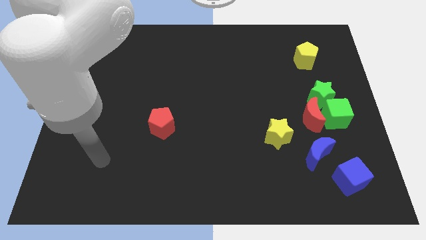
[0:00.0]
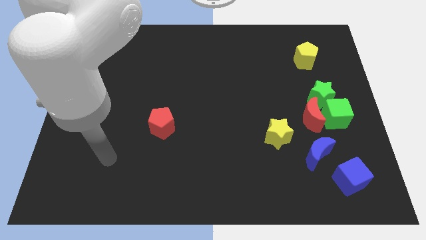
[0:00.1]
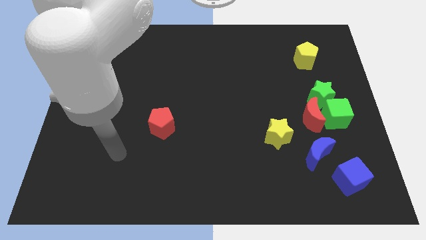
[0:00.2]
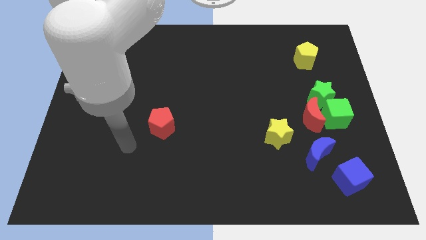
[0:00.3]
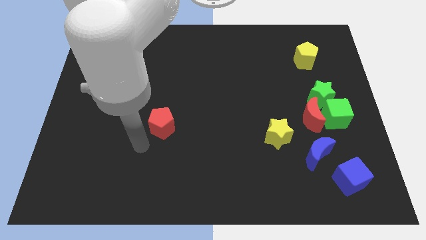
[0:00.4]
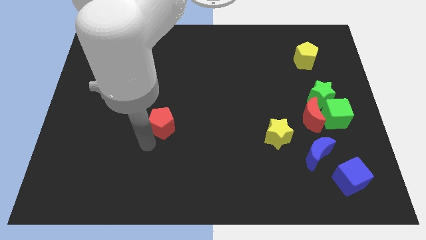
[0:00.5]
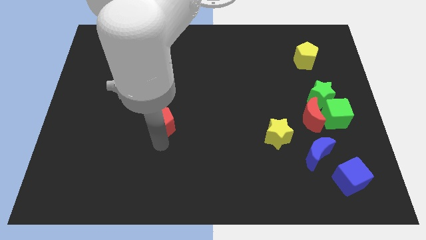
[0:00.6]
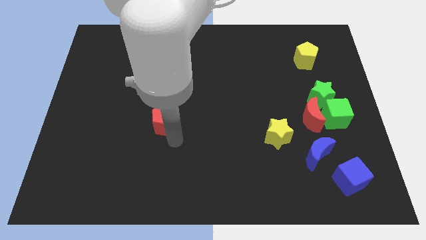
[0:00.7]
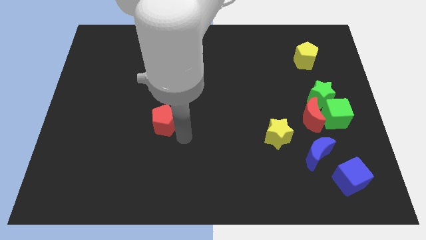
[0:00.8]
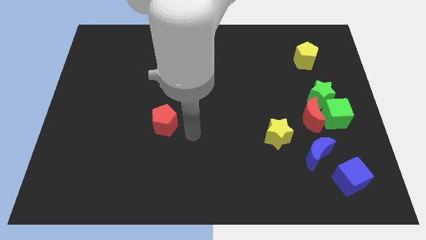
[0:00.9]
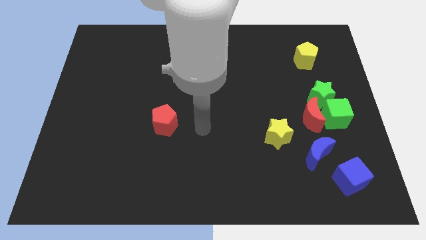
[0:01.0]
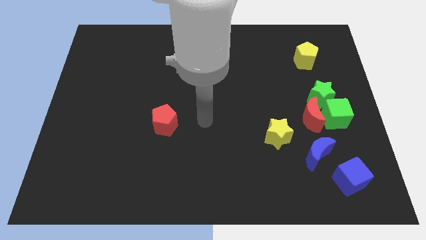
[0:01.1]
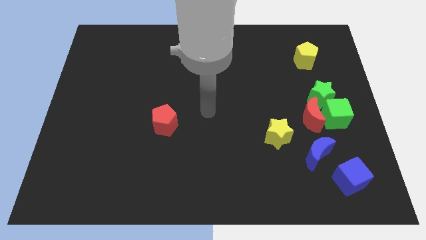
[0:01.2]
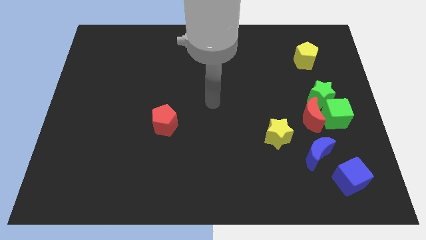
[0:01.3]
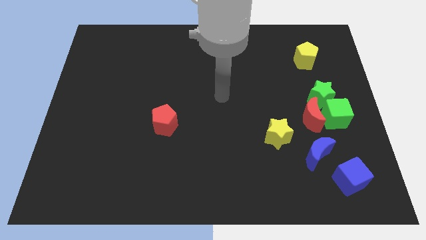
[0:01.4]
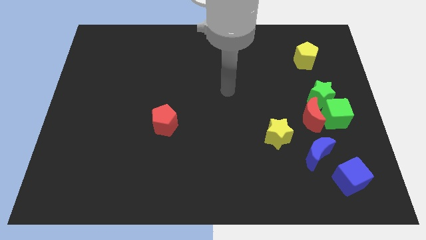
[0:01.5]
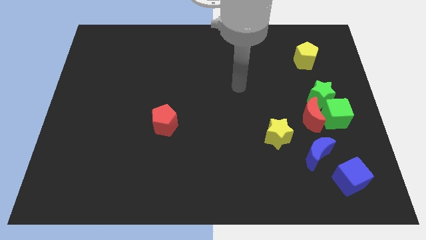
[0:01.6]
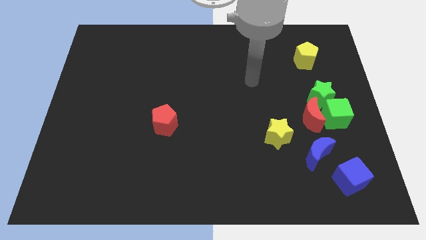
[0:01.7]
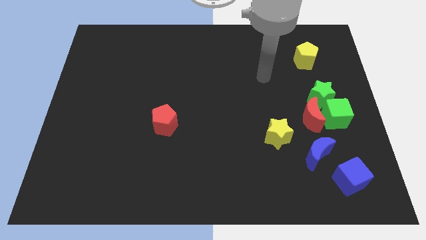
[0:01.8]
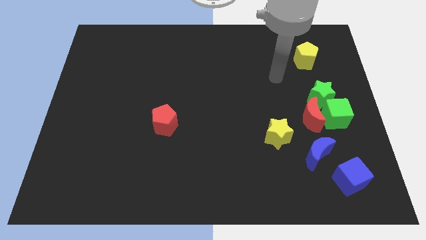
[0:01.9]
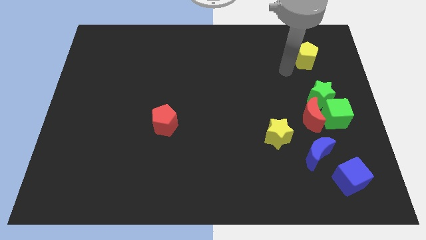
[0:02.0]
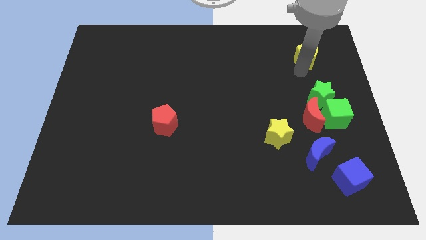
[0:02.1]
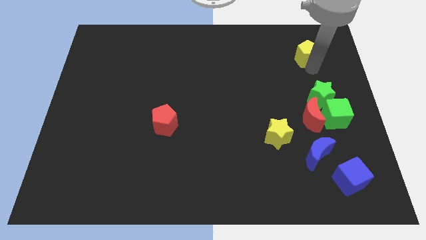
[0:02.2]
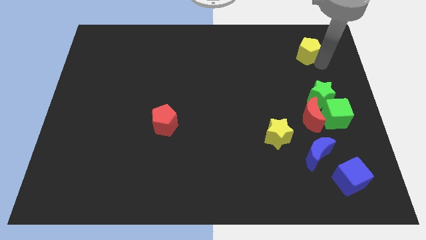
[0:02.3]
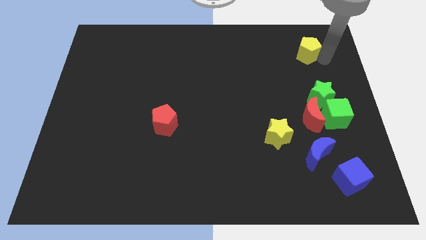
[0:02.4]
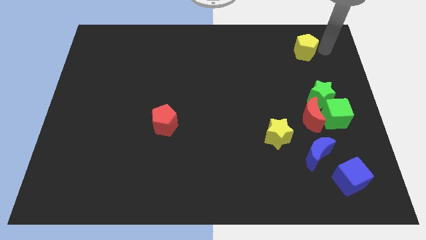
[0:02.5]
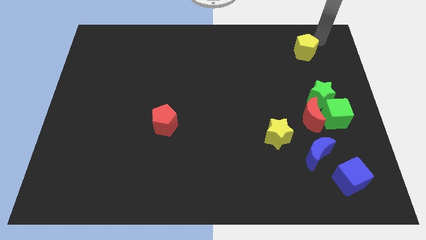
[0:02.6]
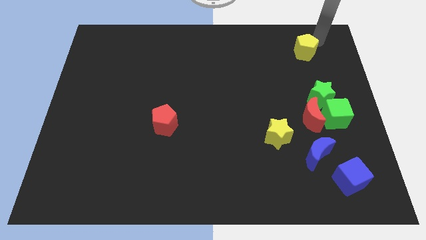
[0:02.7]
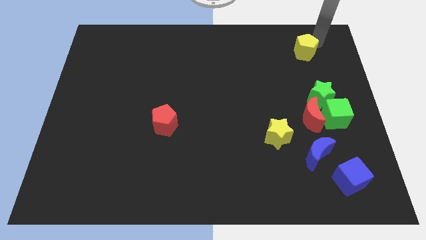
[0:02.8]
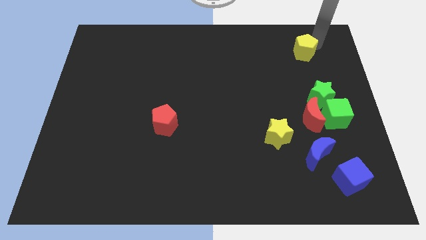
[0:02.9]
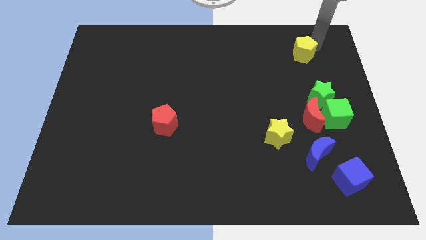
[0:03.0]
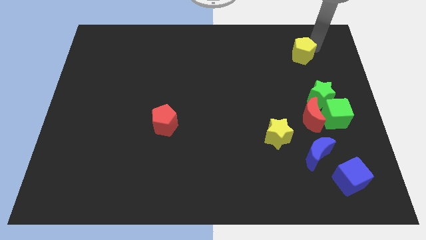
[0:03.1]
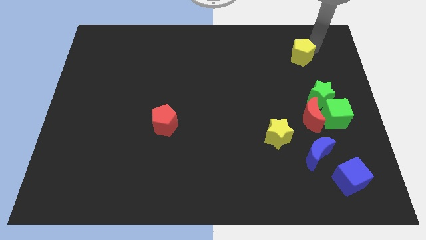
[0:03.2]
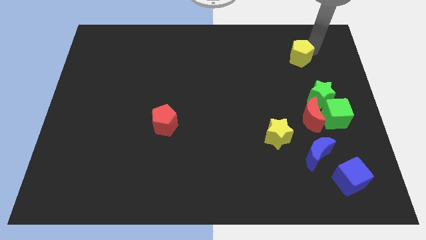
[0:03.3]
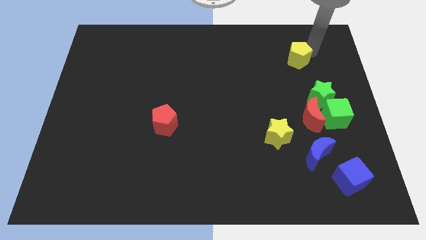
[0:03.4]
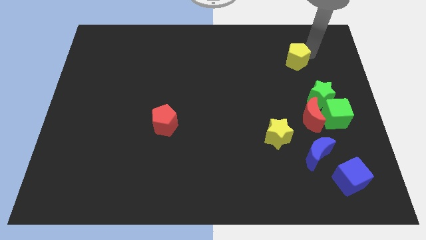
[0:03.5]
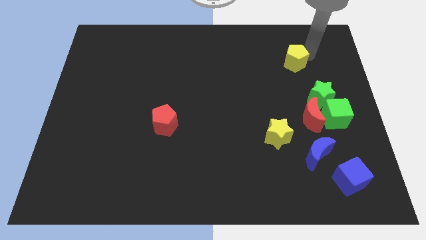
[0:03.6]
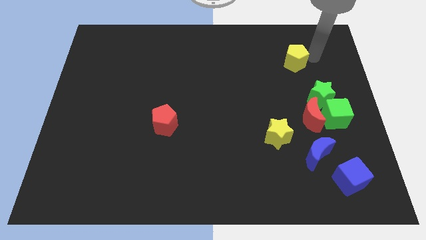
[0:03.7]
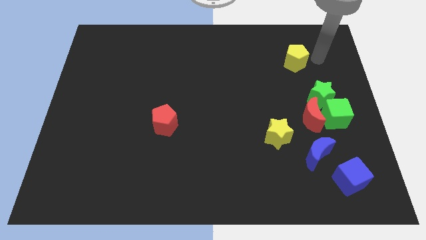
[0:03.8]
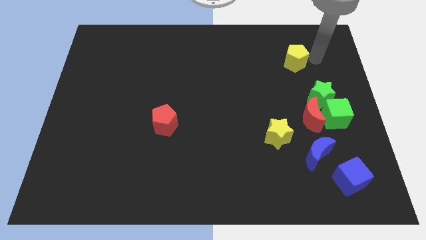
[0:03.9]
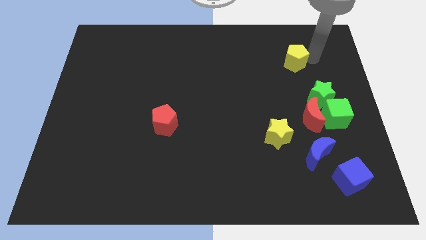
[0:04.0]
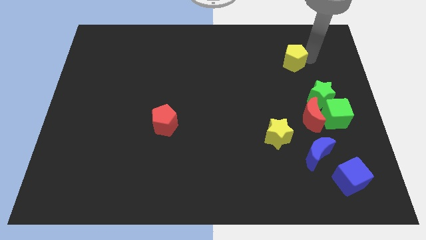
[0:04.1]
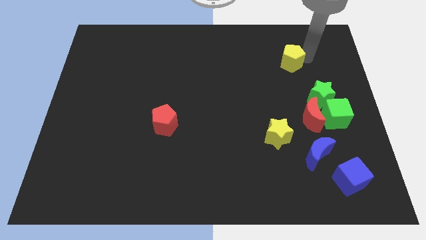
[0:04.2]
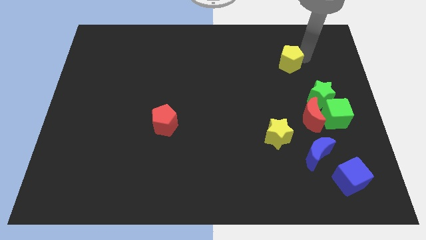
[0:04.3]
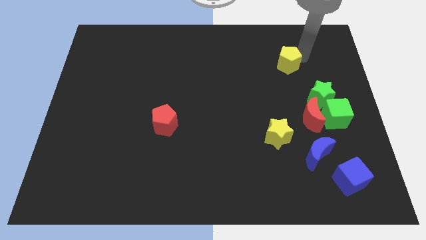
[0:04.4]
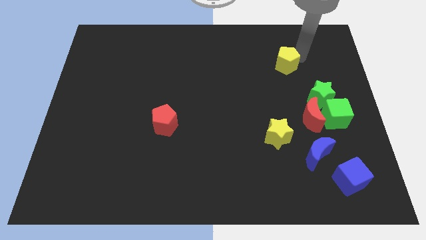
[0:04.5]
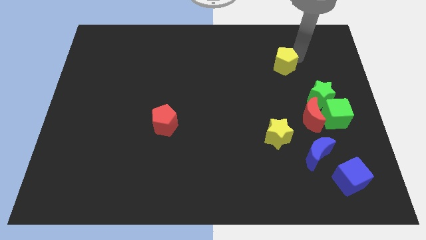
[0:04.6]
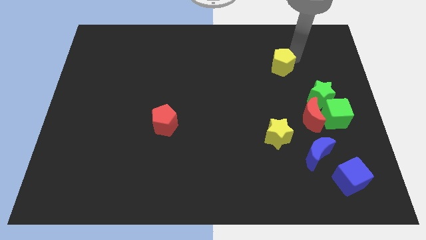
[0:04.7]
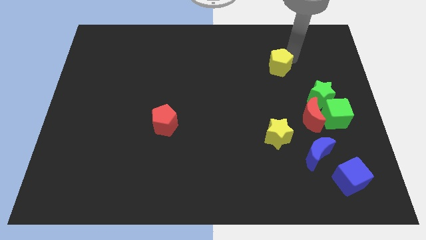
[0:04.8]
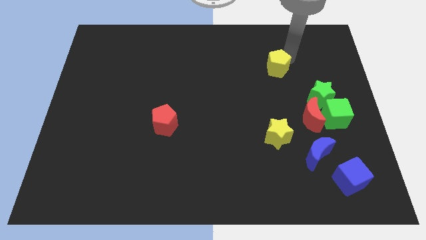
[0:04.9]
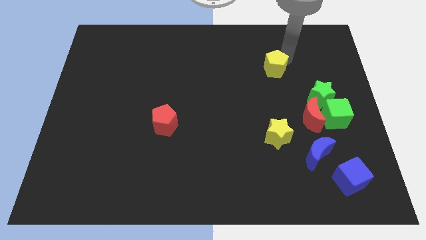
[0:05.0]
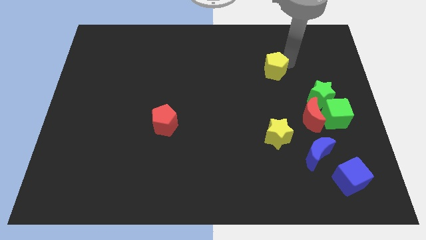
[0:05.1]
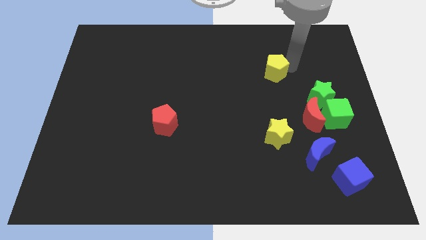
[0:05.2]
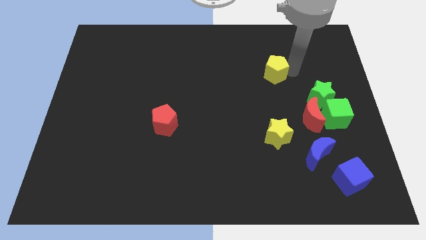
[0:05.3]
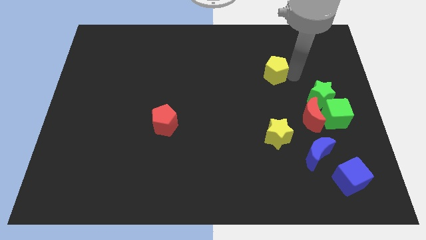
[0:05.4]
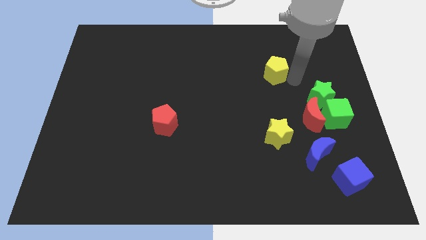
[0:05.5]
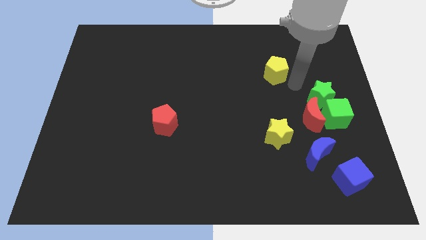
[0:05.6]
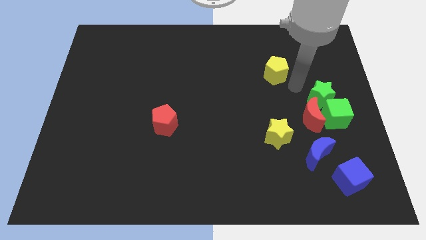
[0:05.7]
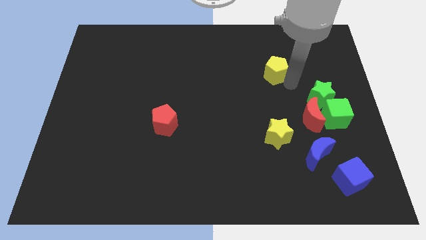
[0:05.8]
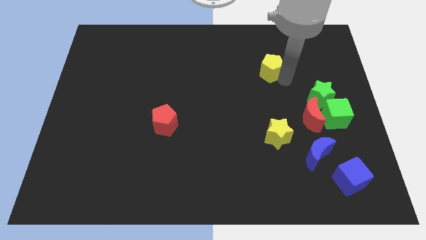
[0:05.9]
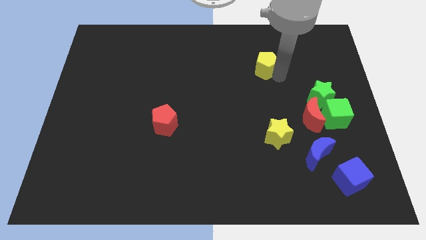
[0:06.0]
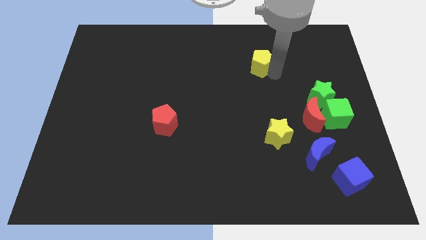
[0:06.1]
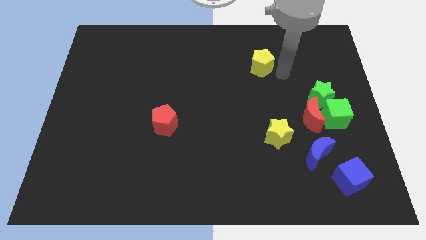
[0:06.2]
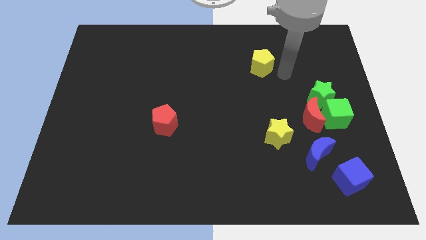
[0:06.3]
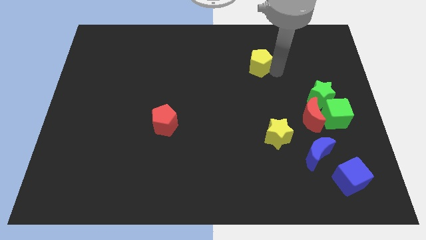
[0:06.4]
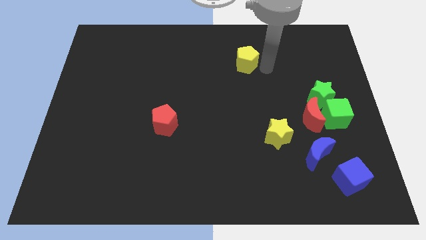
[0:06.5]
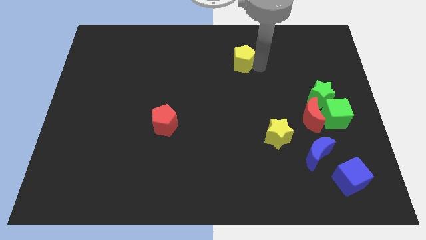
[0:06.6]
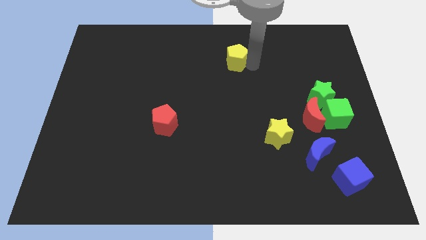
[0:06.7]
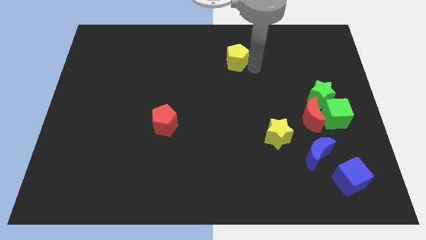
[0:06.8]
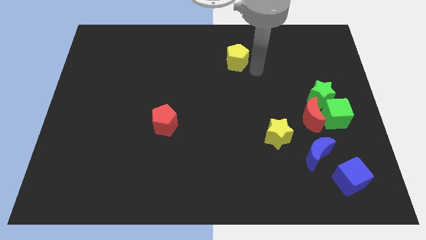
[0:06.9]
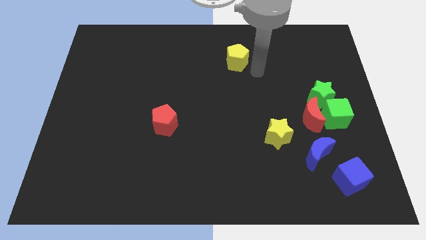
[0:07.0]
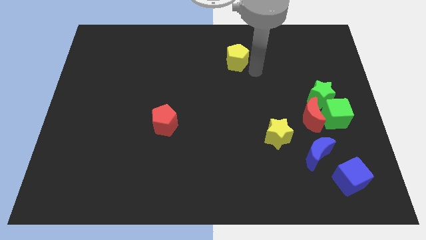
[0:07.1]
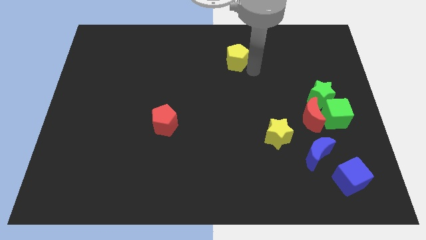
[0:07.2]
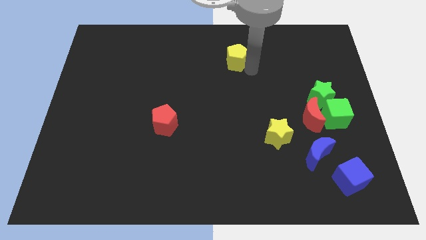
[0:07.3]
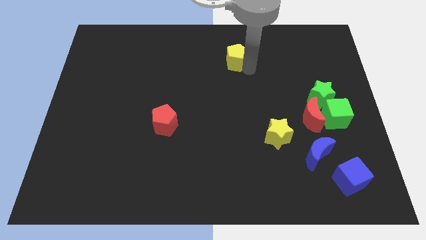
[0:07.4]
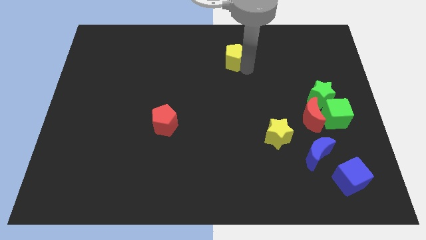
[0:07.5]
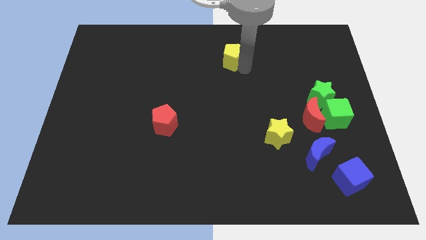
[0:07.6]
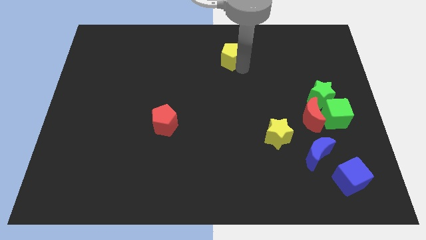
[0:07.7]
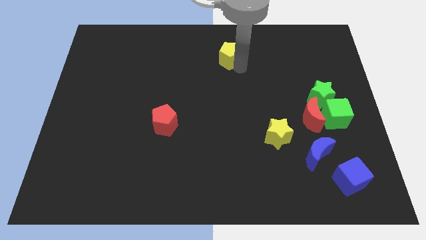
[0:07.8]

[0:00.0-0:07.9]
slide the yellow pentagon to the left
